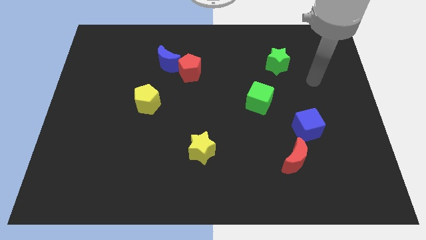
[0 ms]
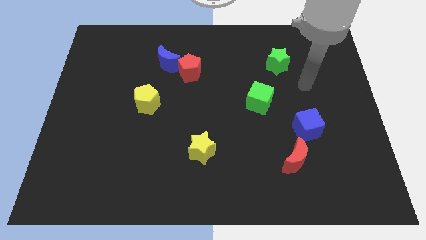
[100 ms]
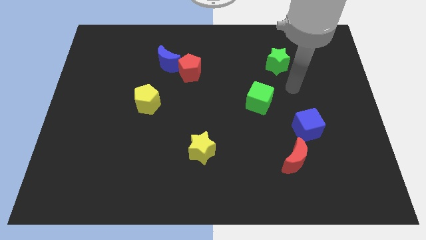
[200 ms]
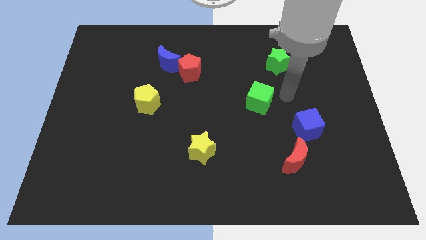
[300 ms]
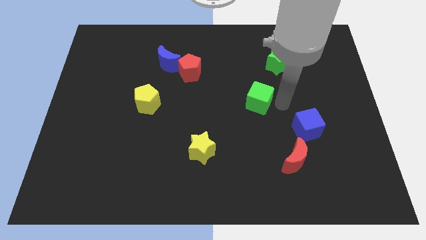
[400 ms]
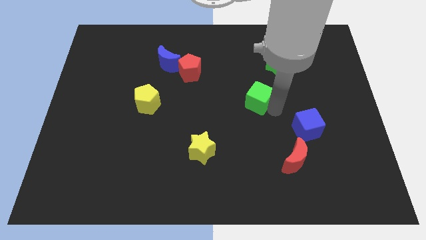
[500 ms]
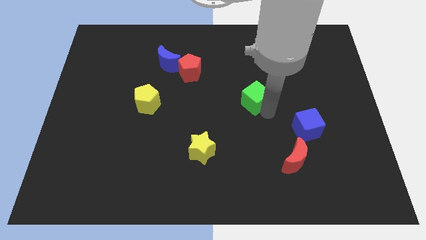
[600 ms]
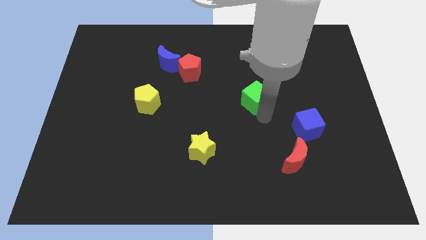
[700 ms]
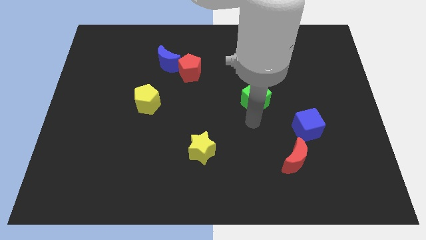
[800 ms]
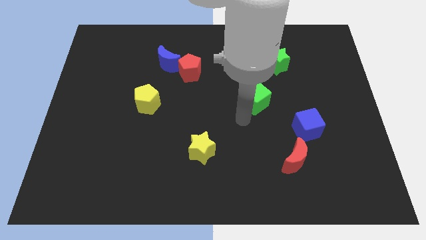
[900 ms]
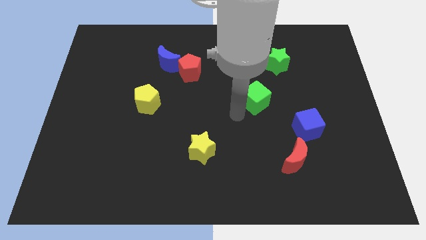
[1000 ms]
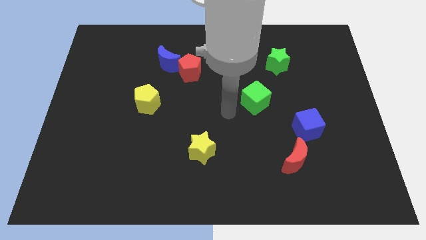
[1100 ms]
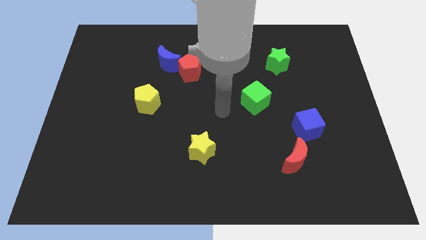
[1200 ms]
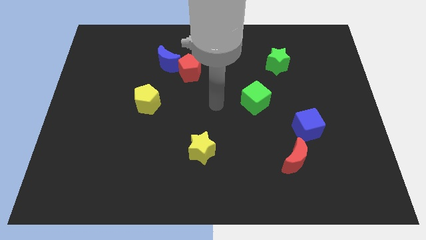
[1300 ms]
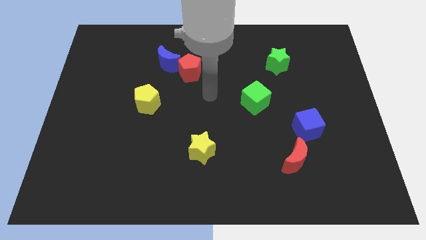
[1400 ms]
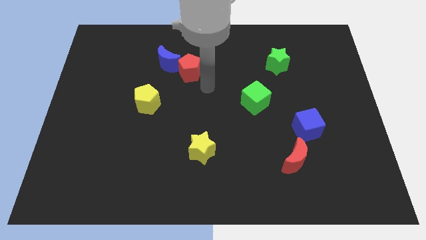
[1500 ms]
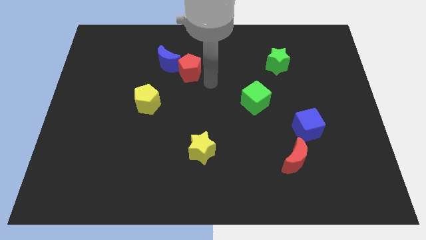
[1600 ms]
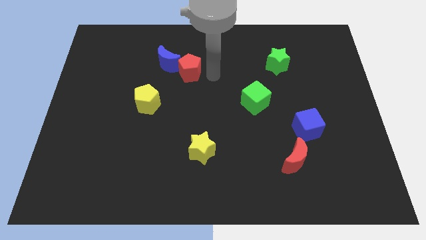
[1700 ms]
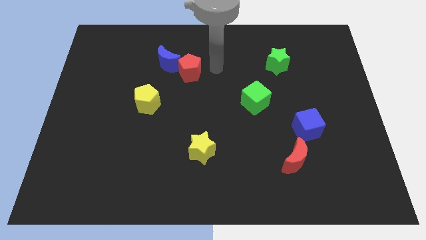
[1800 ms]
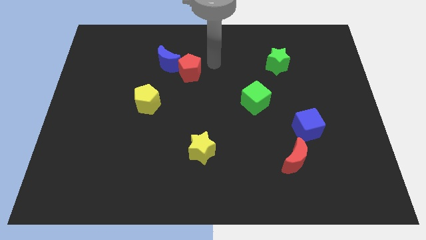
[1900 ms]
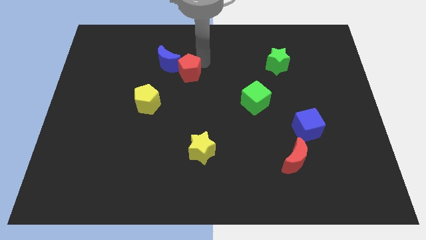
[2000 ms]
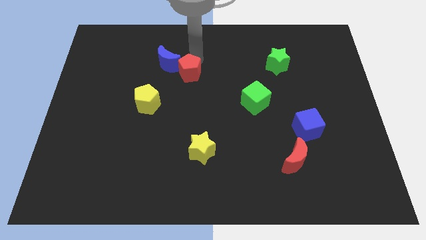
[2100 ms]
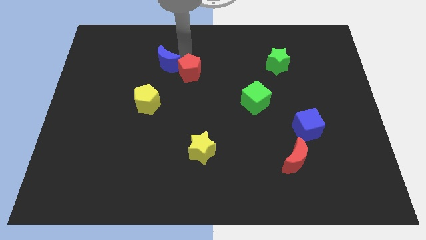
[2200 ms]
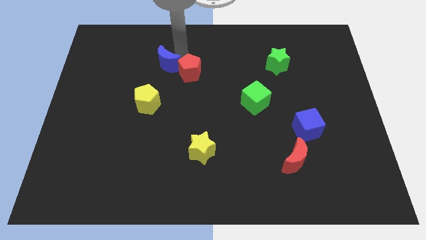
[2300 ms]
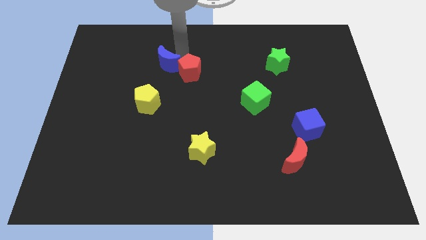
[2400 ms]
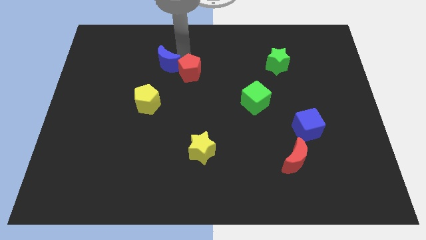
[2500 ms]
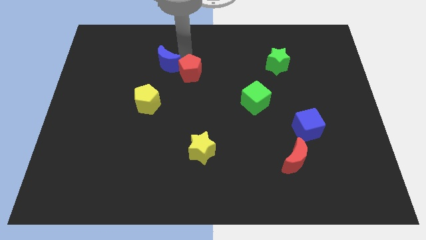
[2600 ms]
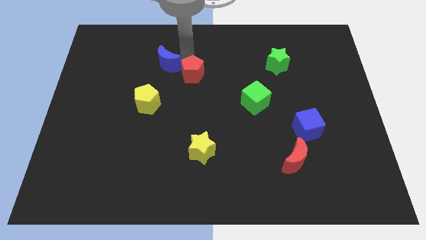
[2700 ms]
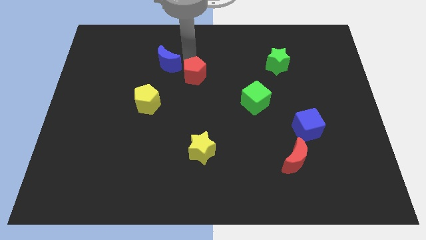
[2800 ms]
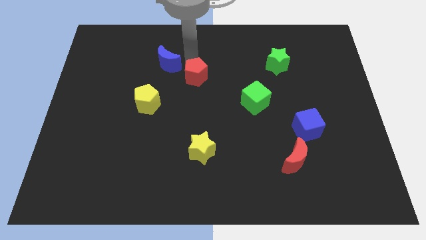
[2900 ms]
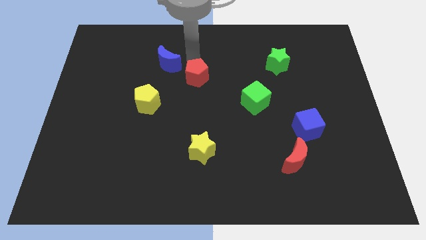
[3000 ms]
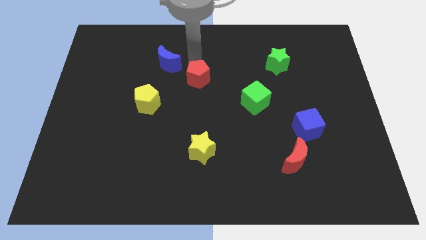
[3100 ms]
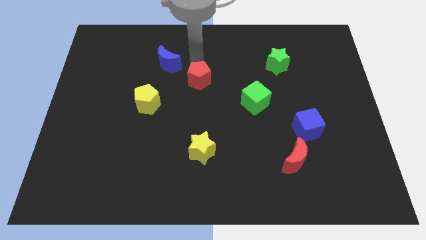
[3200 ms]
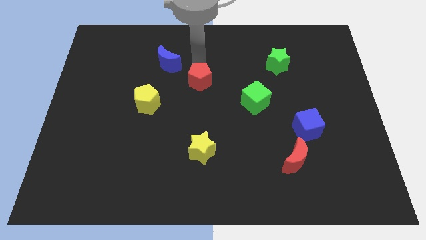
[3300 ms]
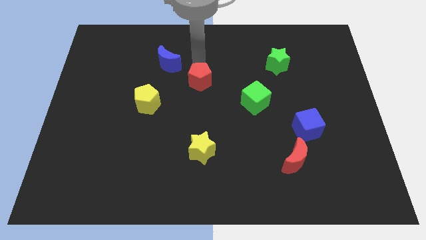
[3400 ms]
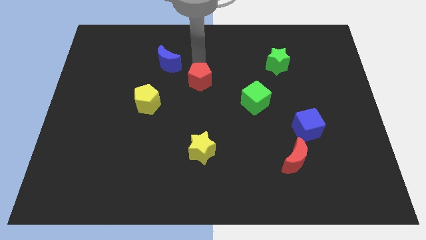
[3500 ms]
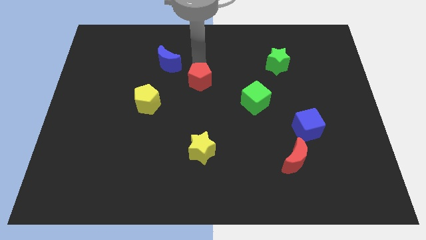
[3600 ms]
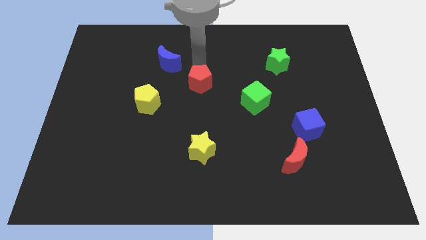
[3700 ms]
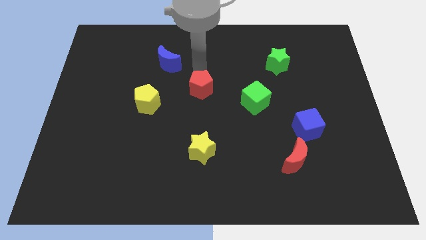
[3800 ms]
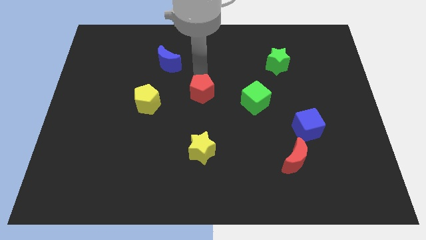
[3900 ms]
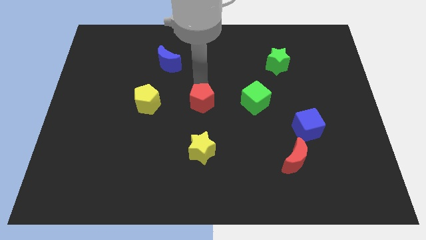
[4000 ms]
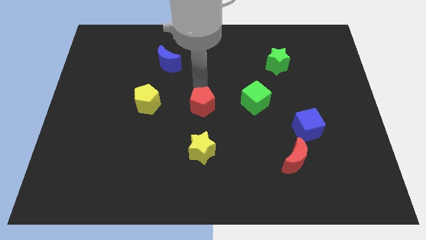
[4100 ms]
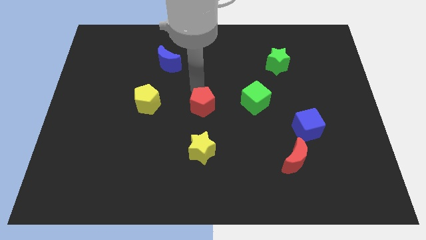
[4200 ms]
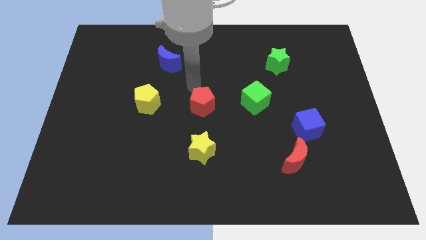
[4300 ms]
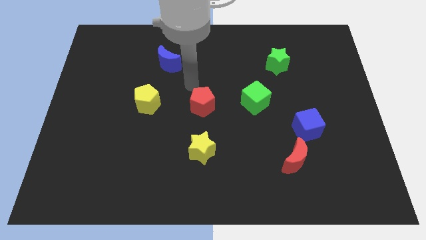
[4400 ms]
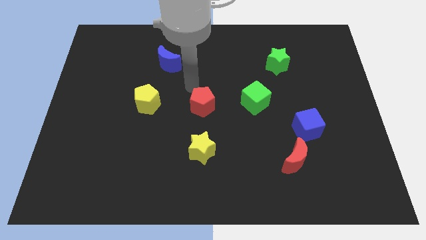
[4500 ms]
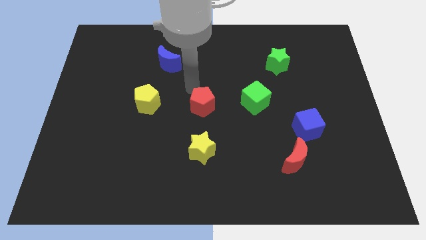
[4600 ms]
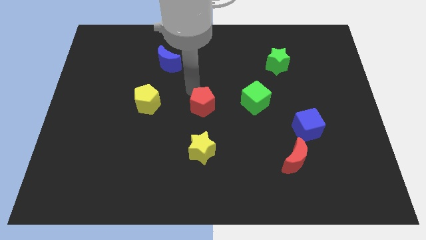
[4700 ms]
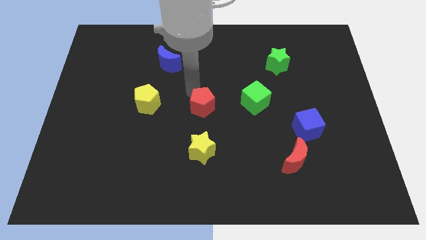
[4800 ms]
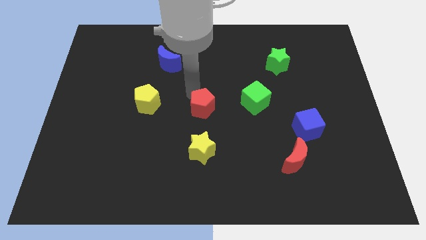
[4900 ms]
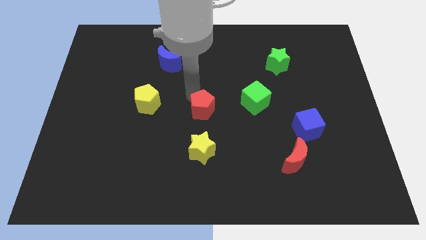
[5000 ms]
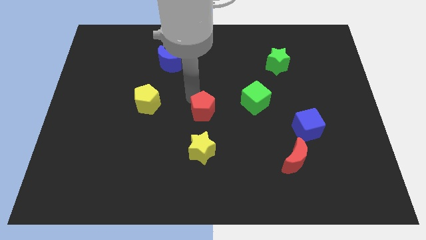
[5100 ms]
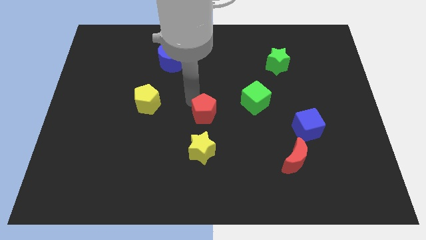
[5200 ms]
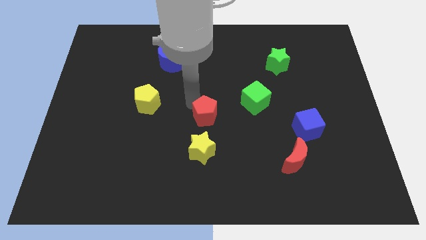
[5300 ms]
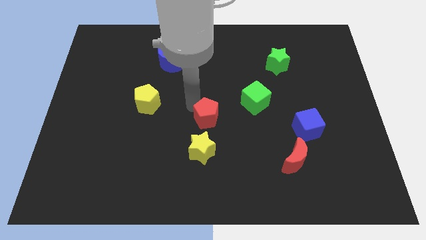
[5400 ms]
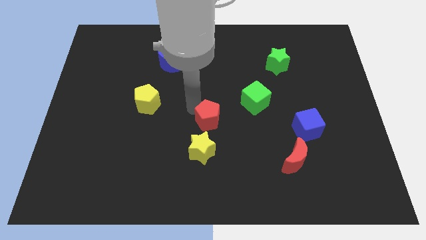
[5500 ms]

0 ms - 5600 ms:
push the red pentagon diagonally up and to the right of the yellow star

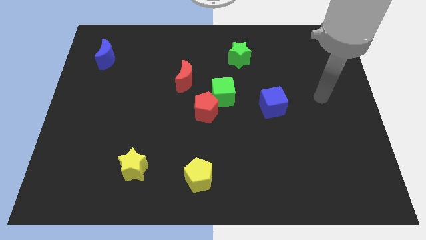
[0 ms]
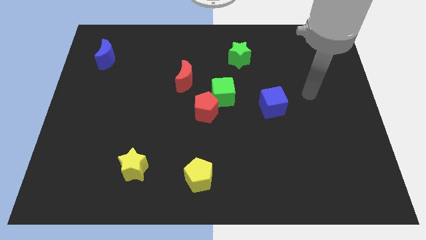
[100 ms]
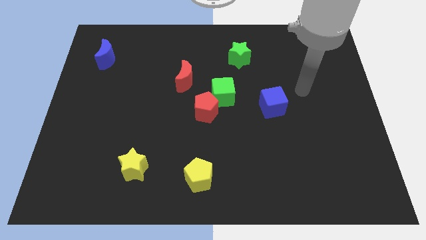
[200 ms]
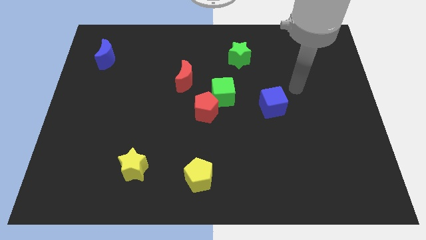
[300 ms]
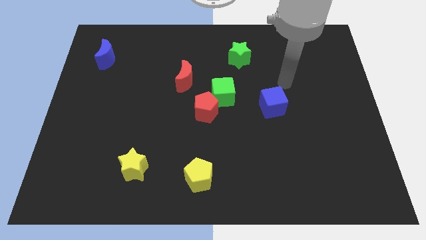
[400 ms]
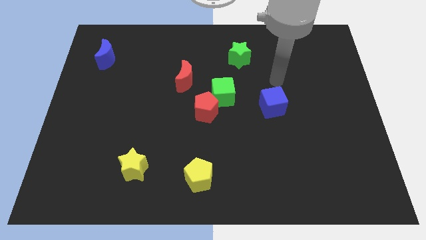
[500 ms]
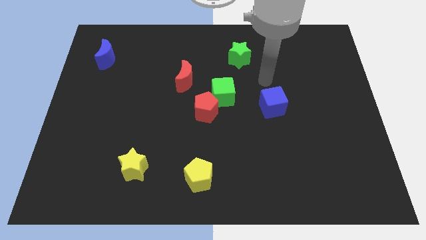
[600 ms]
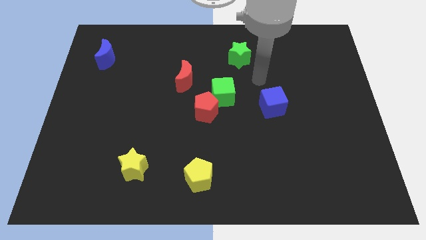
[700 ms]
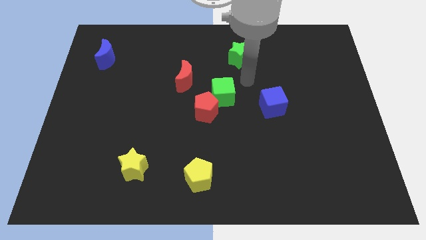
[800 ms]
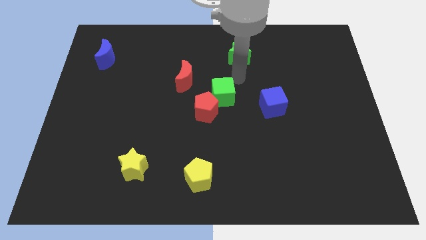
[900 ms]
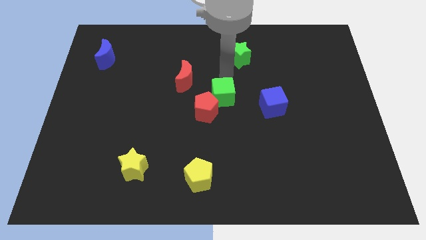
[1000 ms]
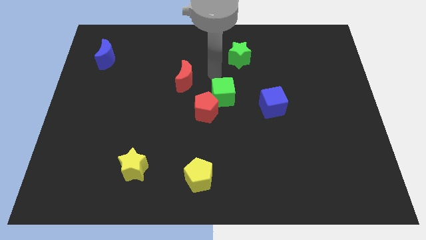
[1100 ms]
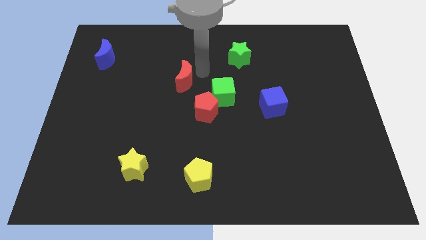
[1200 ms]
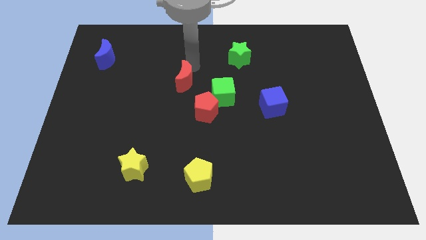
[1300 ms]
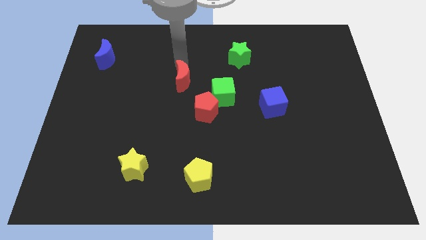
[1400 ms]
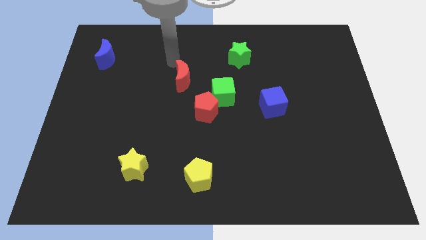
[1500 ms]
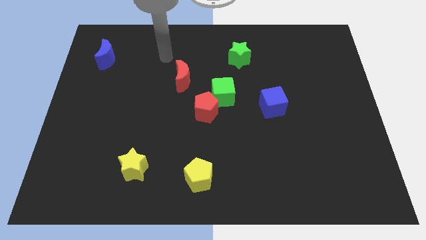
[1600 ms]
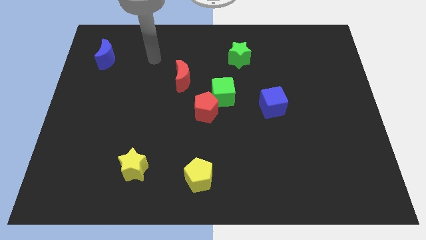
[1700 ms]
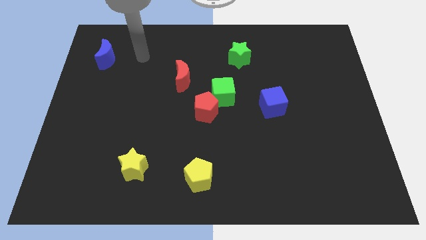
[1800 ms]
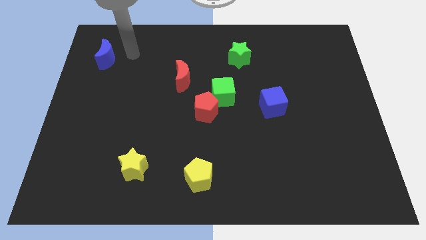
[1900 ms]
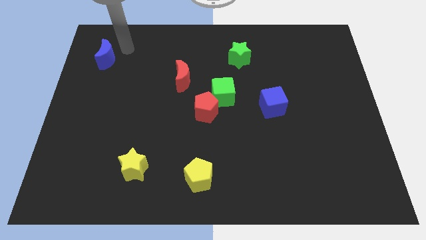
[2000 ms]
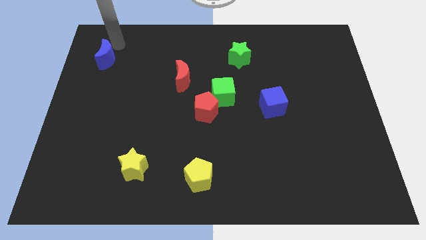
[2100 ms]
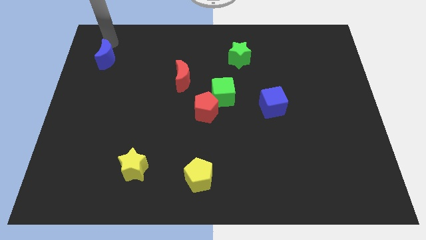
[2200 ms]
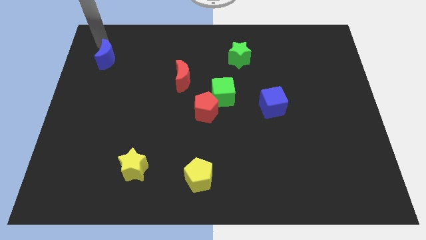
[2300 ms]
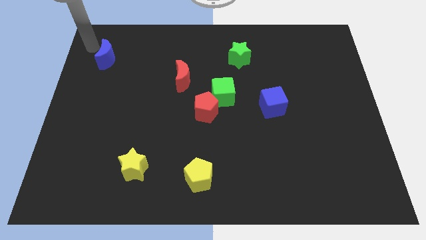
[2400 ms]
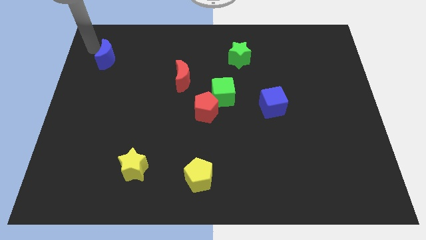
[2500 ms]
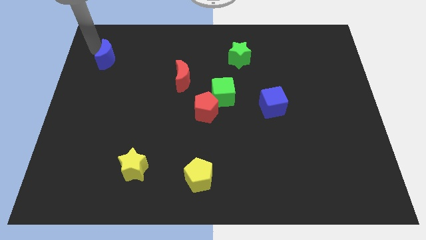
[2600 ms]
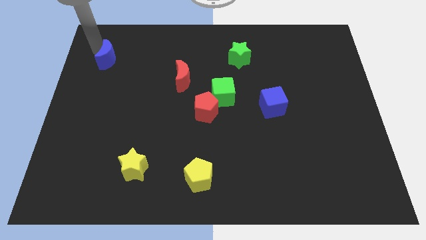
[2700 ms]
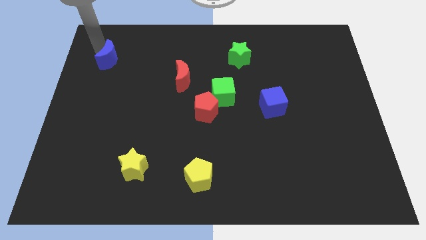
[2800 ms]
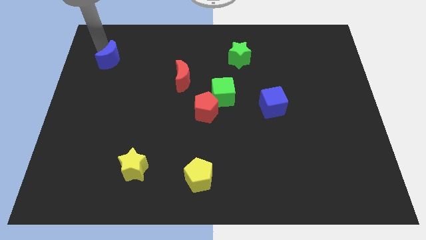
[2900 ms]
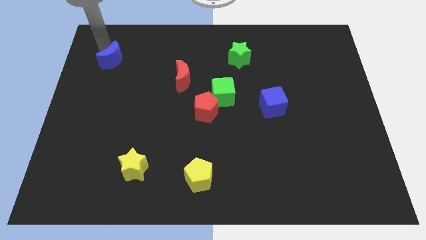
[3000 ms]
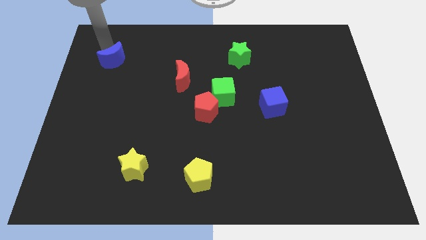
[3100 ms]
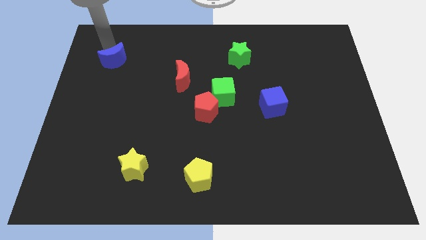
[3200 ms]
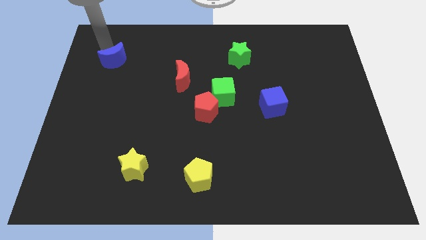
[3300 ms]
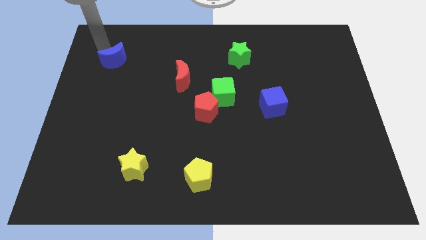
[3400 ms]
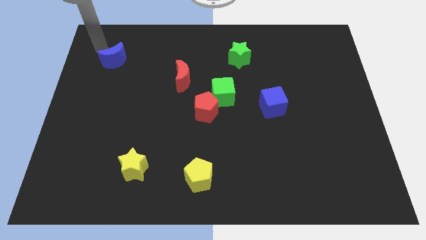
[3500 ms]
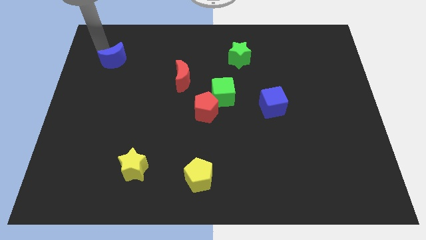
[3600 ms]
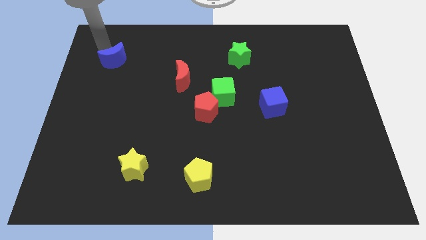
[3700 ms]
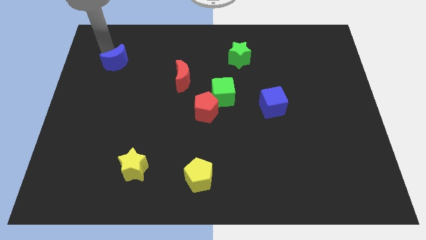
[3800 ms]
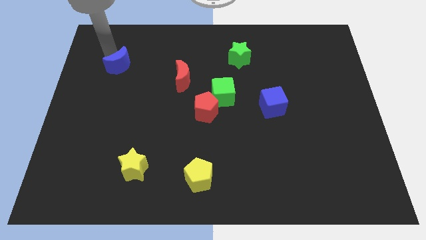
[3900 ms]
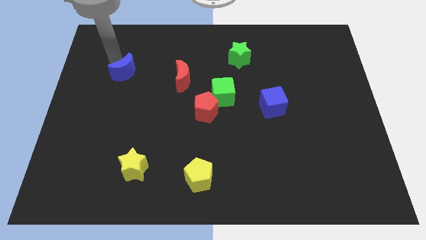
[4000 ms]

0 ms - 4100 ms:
move the blue moon just left of the red moon
